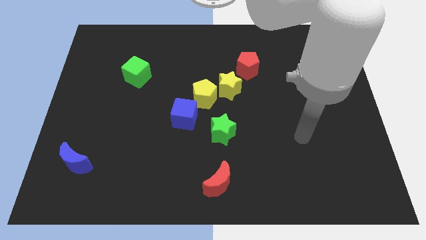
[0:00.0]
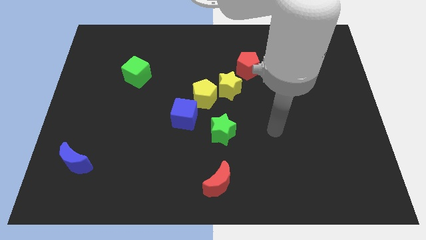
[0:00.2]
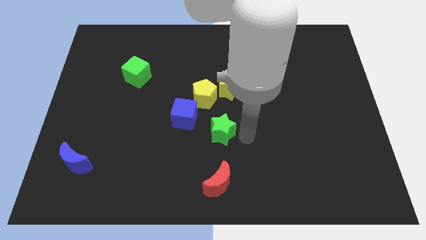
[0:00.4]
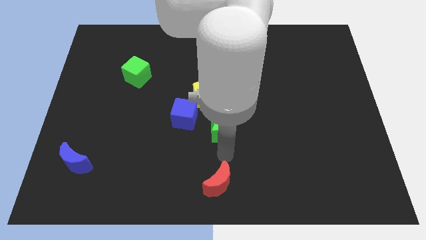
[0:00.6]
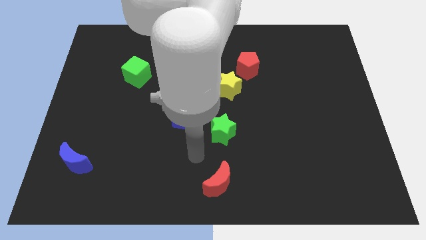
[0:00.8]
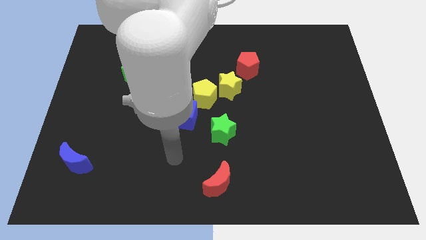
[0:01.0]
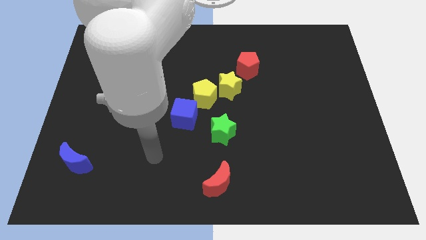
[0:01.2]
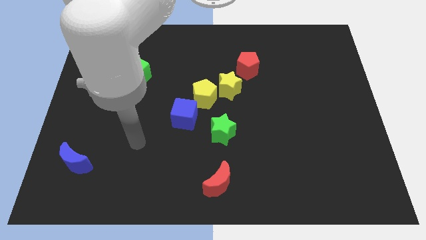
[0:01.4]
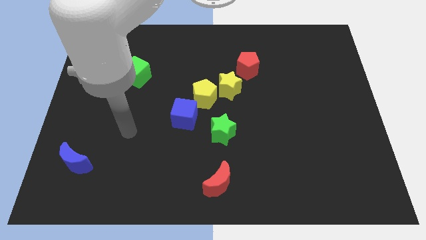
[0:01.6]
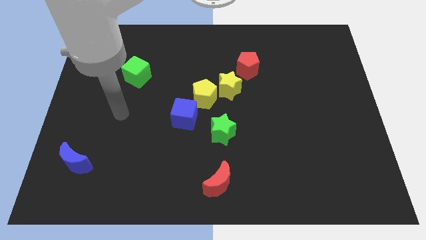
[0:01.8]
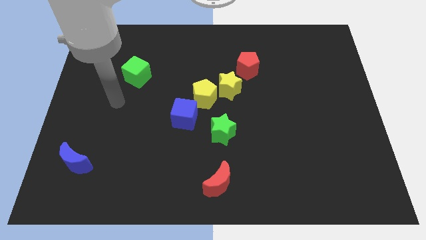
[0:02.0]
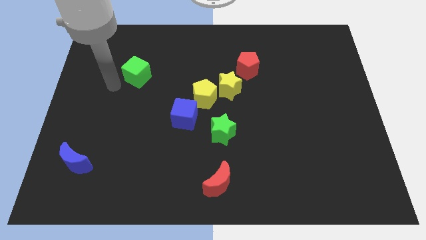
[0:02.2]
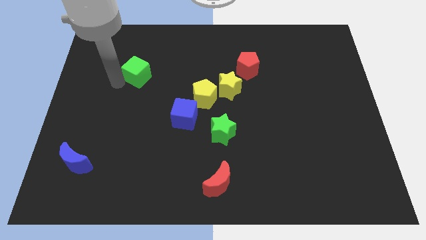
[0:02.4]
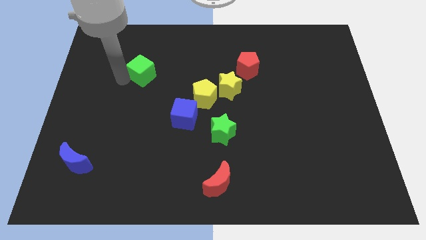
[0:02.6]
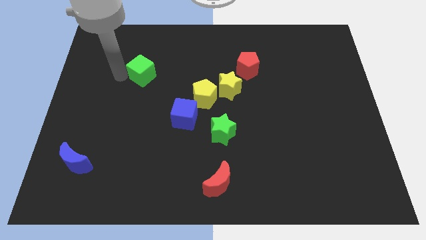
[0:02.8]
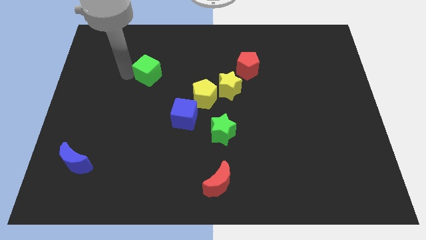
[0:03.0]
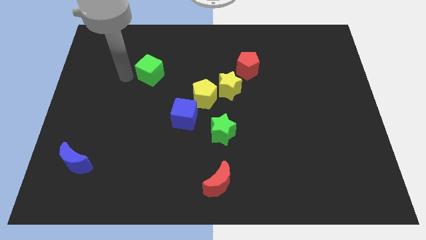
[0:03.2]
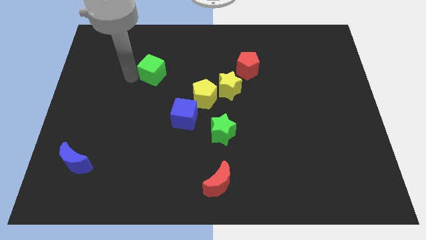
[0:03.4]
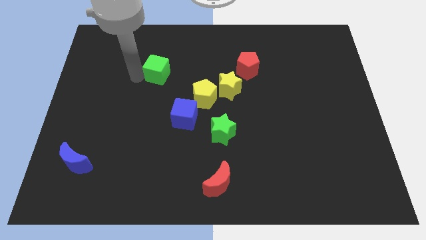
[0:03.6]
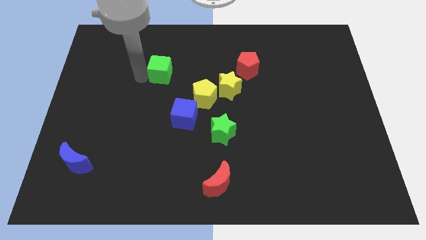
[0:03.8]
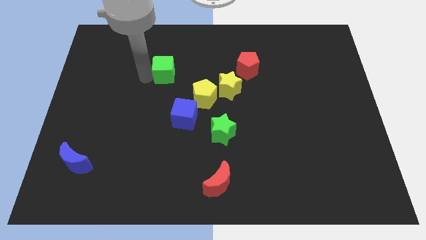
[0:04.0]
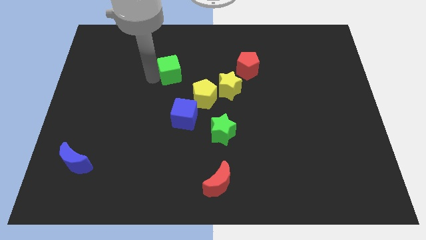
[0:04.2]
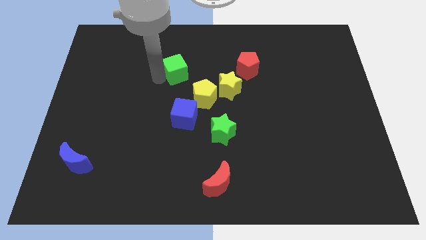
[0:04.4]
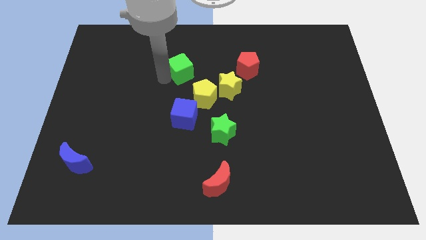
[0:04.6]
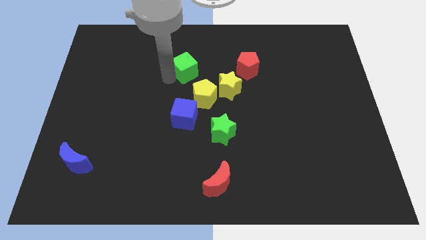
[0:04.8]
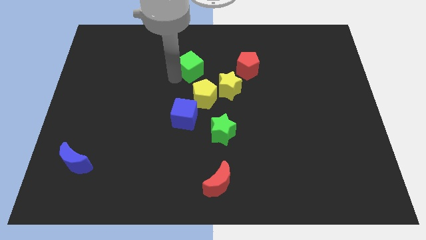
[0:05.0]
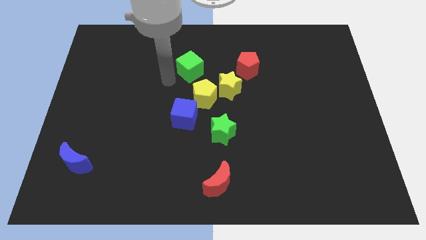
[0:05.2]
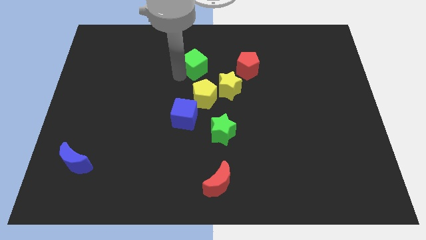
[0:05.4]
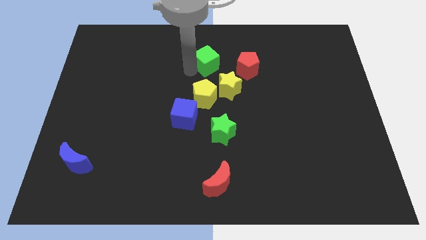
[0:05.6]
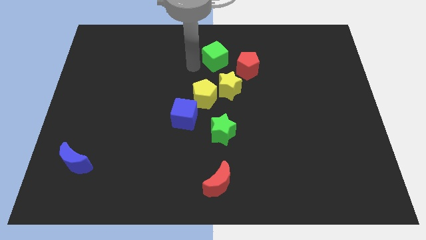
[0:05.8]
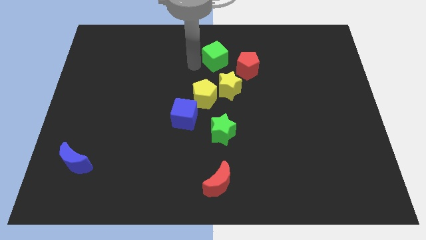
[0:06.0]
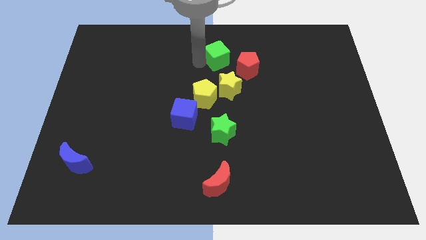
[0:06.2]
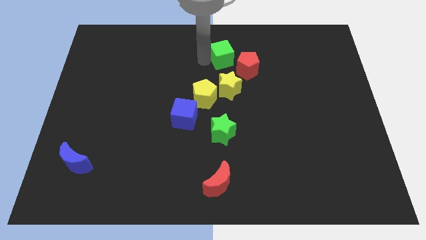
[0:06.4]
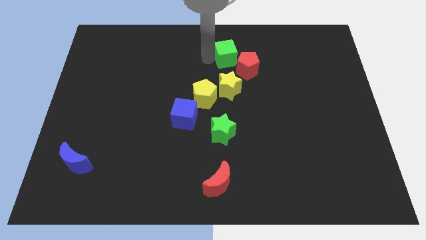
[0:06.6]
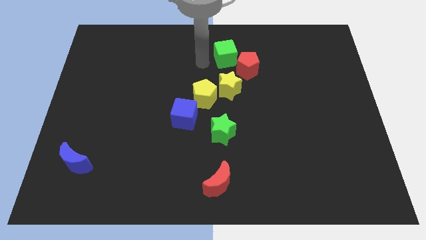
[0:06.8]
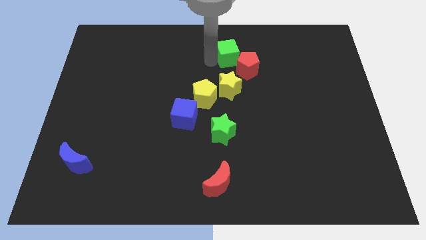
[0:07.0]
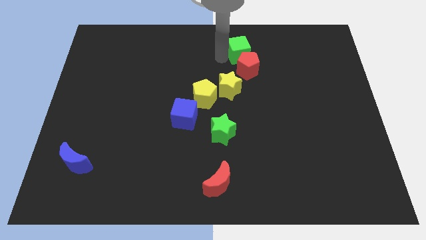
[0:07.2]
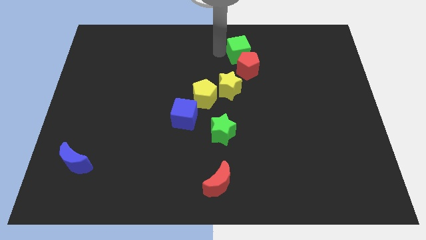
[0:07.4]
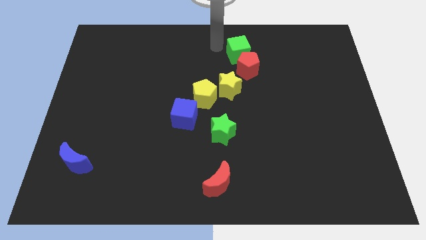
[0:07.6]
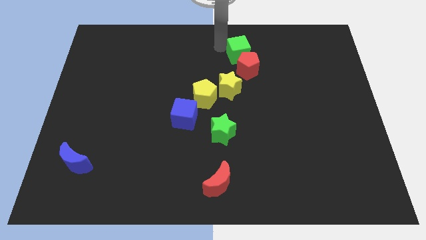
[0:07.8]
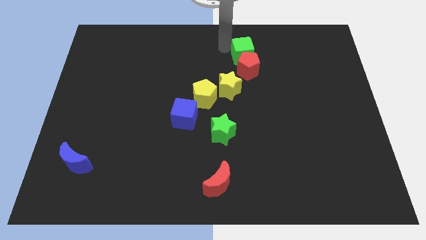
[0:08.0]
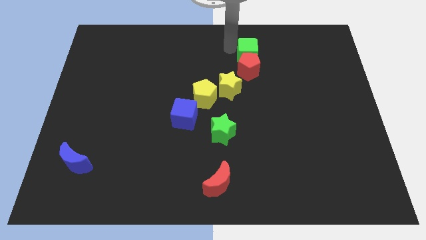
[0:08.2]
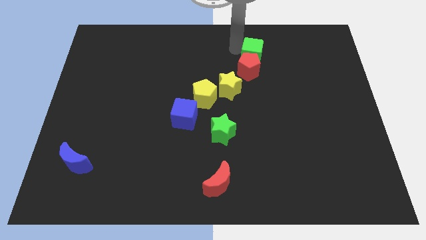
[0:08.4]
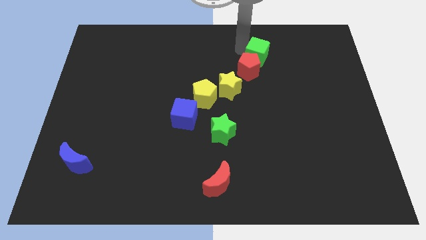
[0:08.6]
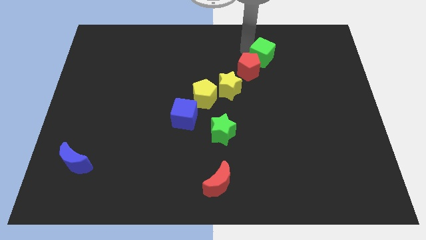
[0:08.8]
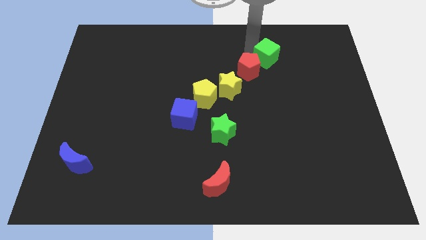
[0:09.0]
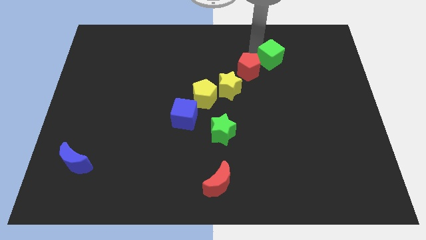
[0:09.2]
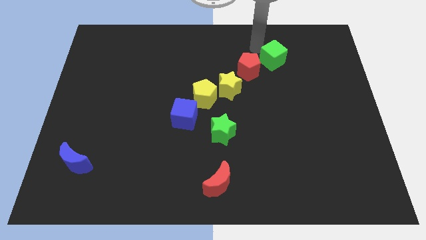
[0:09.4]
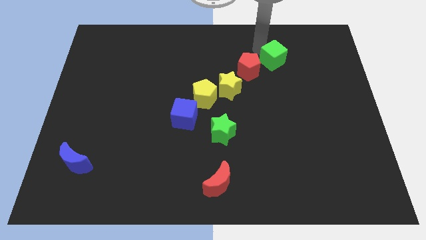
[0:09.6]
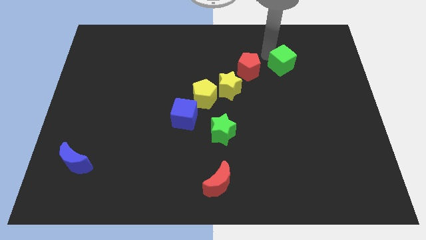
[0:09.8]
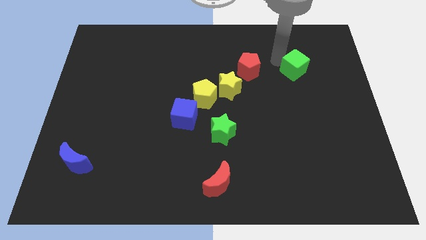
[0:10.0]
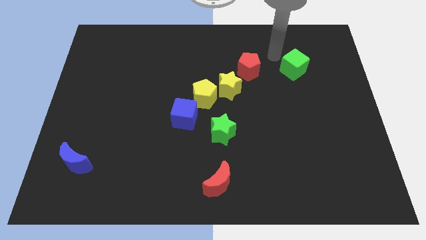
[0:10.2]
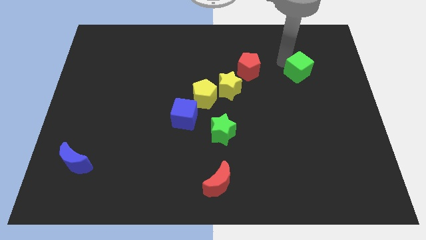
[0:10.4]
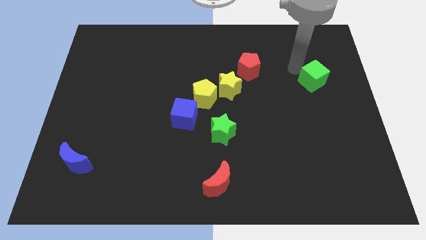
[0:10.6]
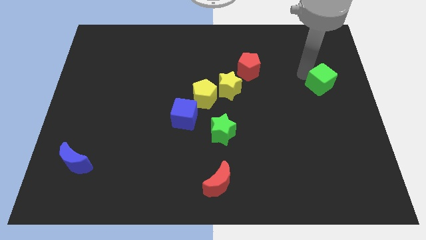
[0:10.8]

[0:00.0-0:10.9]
slide the green cube to the right side of the board

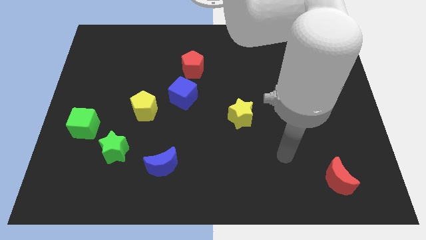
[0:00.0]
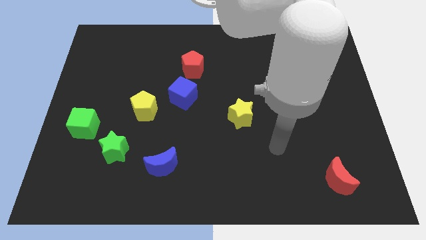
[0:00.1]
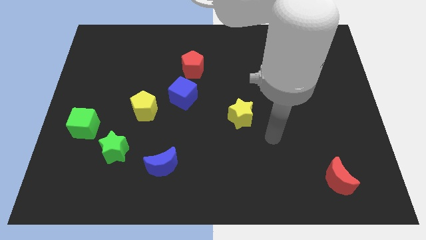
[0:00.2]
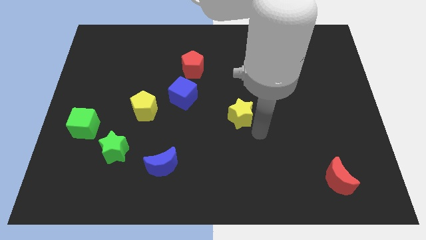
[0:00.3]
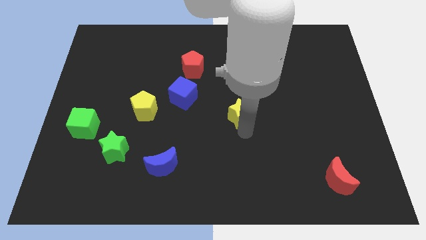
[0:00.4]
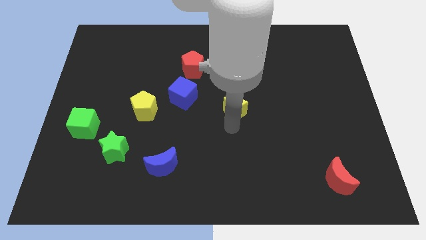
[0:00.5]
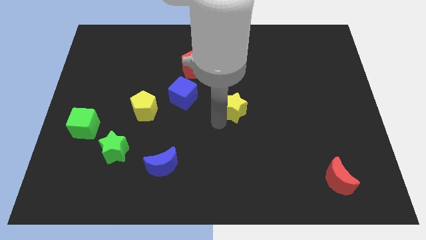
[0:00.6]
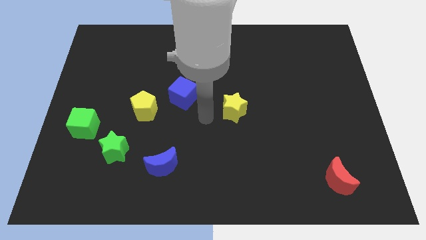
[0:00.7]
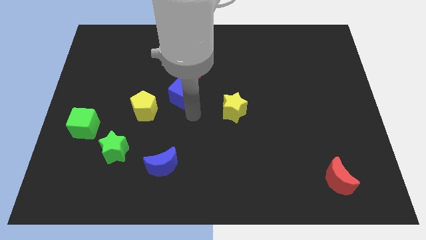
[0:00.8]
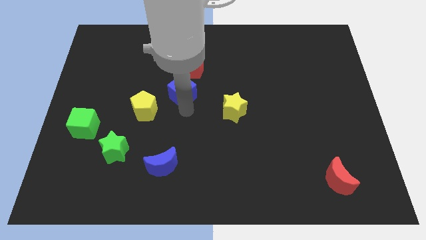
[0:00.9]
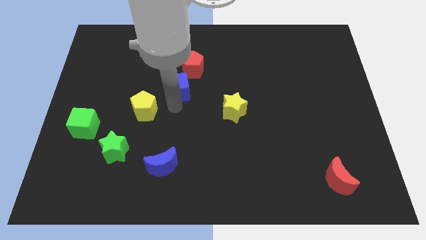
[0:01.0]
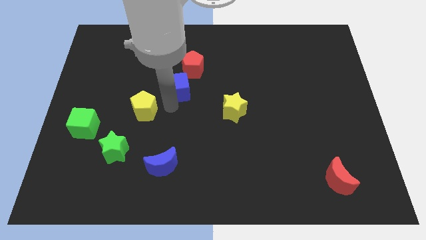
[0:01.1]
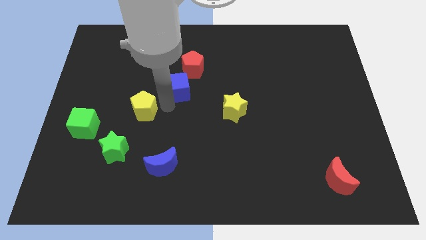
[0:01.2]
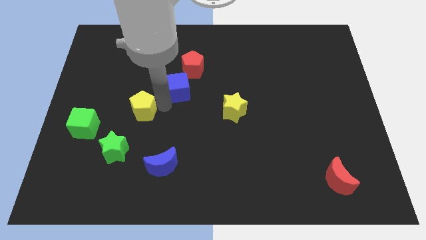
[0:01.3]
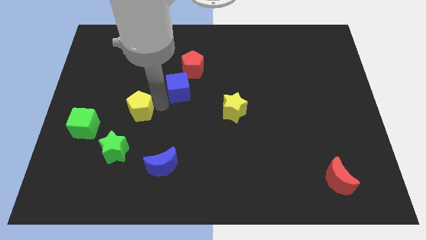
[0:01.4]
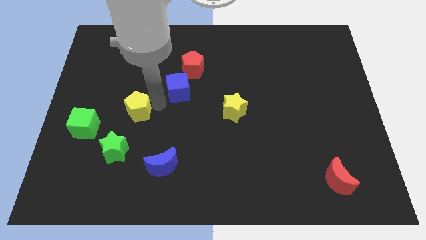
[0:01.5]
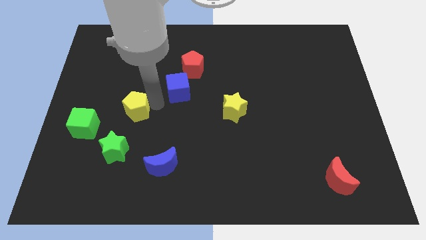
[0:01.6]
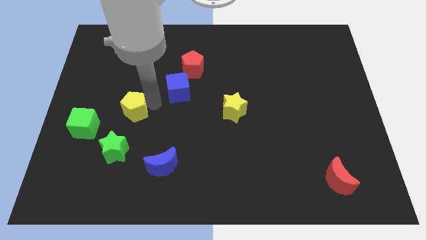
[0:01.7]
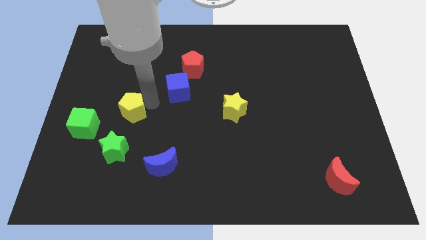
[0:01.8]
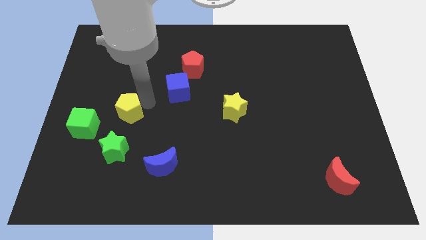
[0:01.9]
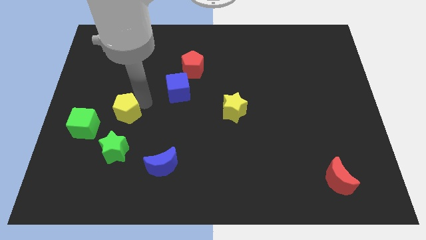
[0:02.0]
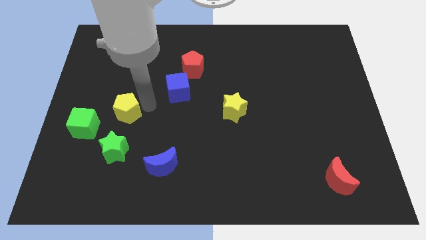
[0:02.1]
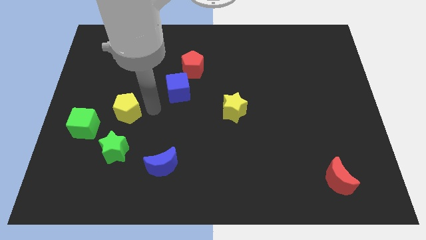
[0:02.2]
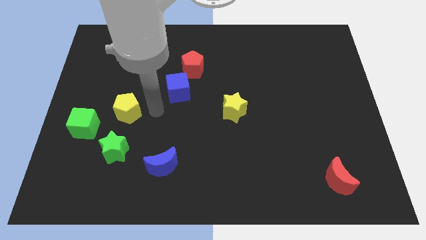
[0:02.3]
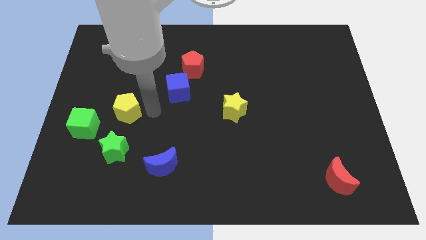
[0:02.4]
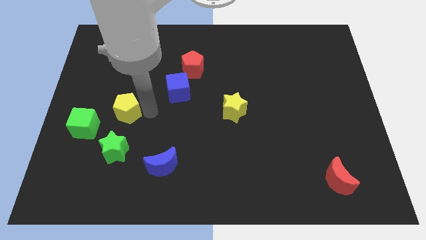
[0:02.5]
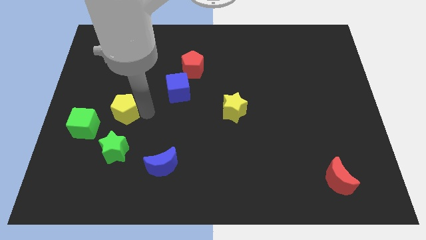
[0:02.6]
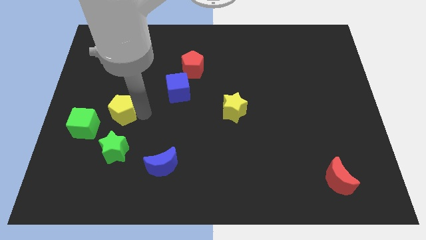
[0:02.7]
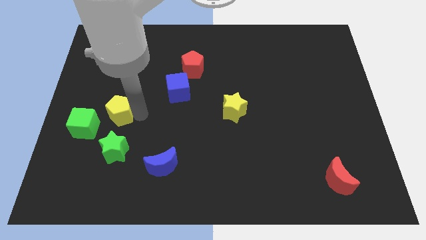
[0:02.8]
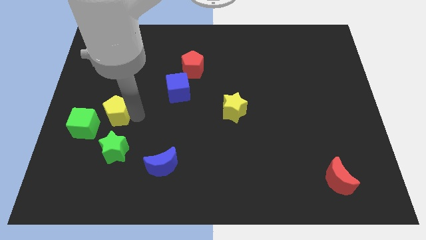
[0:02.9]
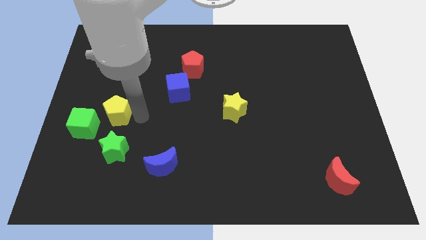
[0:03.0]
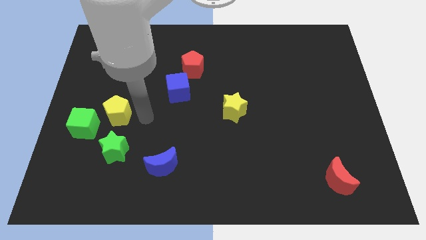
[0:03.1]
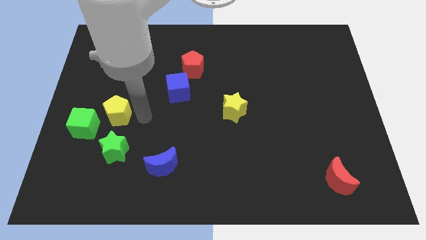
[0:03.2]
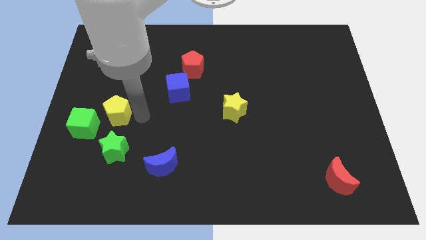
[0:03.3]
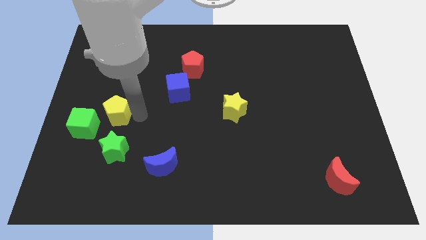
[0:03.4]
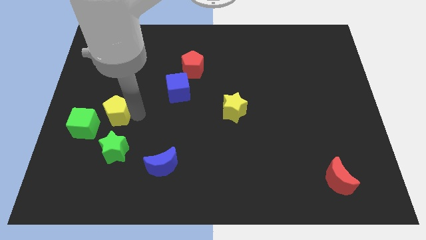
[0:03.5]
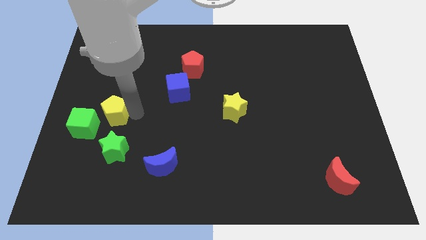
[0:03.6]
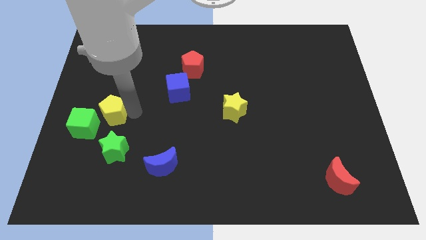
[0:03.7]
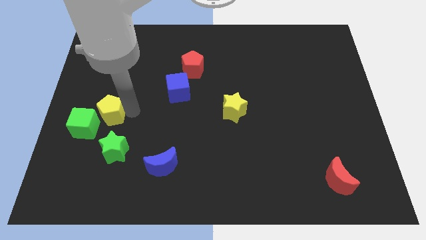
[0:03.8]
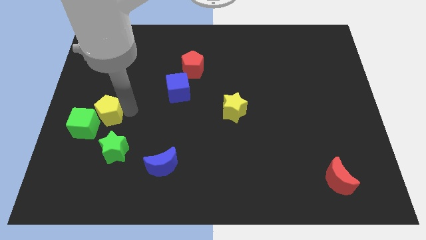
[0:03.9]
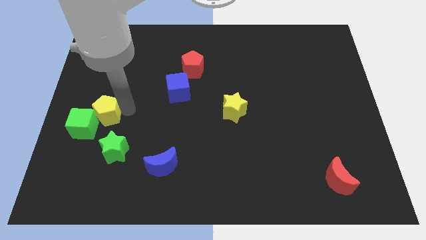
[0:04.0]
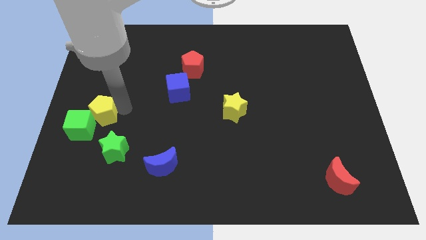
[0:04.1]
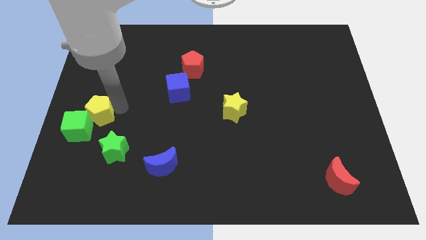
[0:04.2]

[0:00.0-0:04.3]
push the yellow pentagon to the left side of the board
